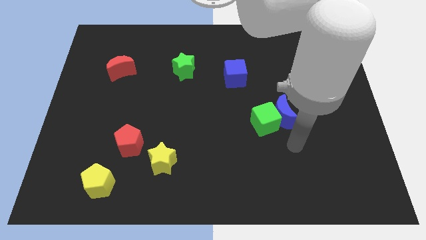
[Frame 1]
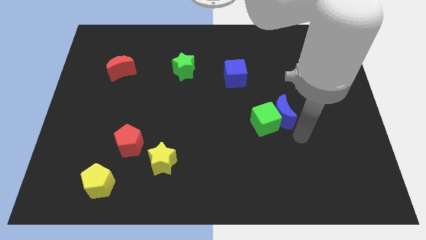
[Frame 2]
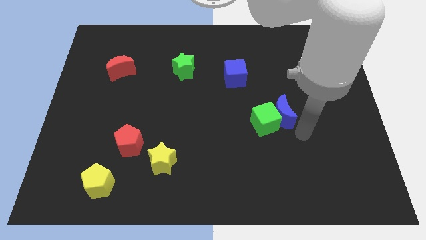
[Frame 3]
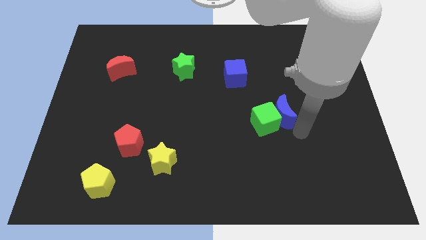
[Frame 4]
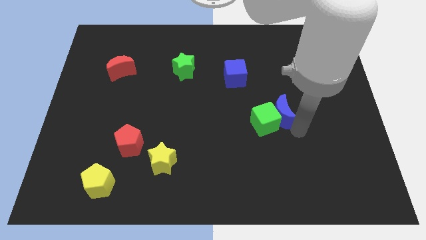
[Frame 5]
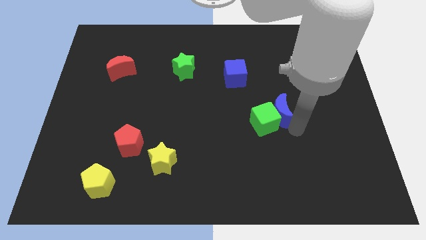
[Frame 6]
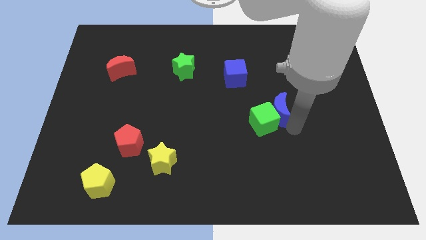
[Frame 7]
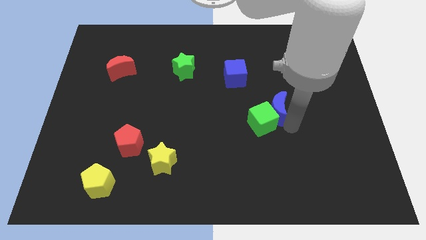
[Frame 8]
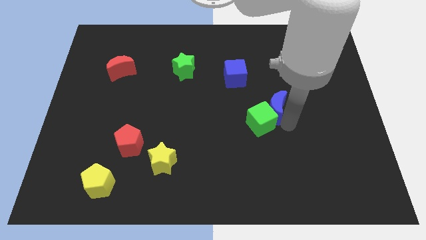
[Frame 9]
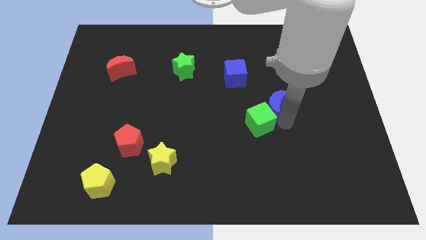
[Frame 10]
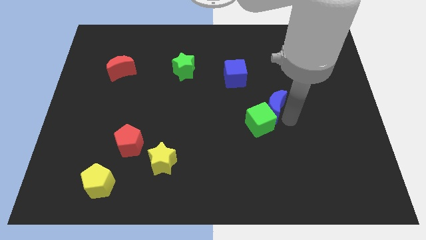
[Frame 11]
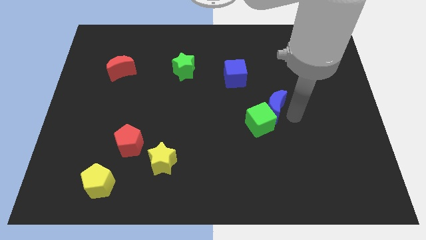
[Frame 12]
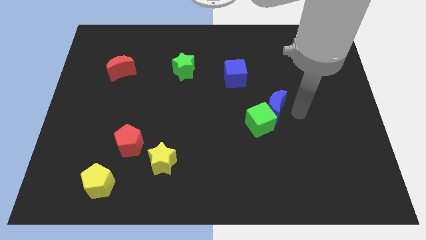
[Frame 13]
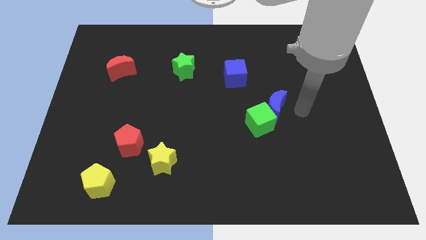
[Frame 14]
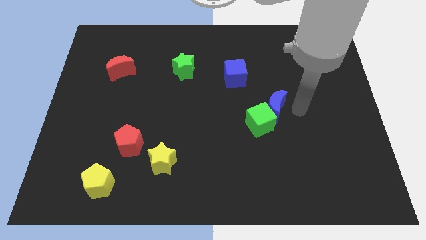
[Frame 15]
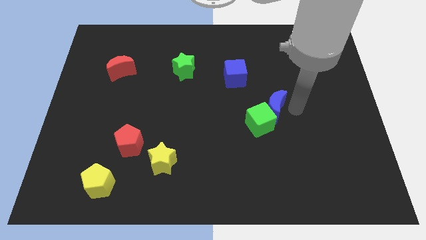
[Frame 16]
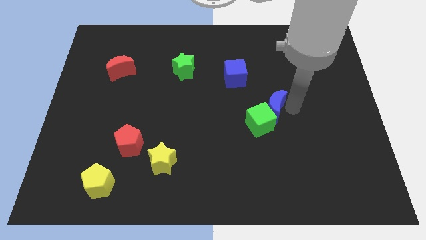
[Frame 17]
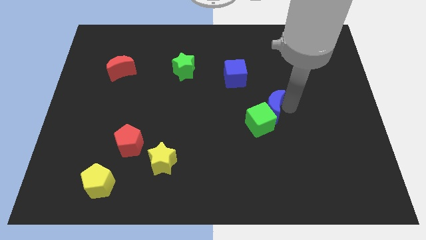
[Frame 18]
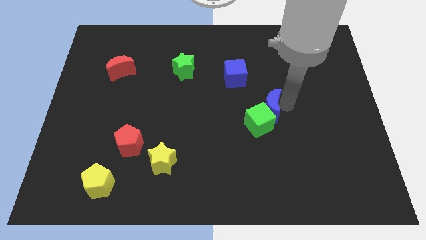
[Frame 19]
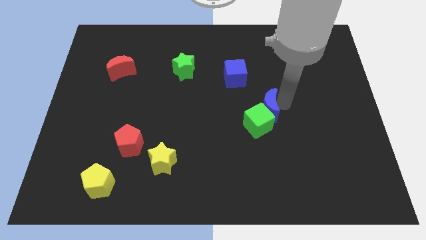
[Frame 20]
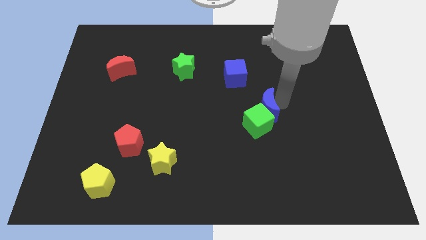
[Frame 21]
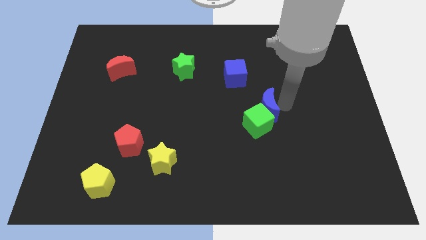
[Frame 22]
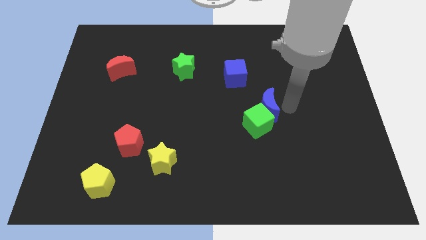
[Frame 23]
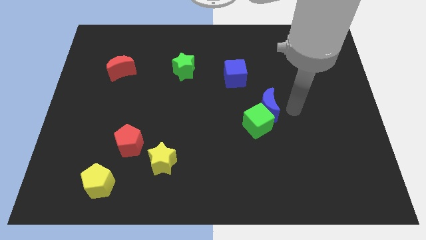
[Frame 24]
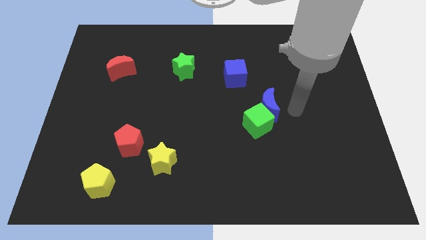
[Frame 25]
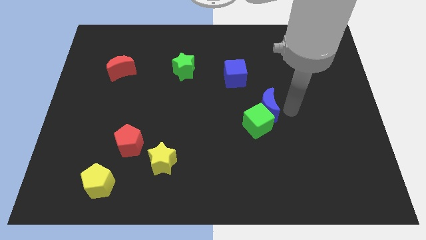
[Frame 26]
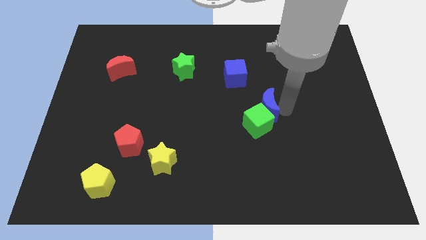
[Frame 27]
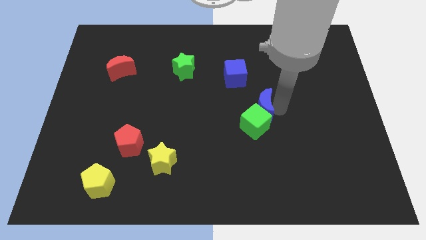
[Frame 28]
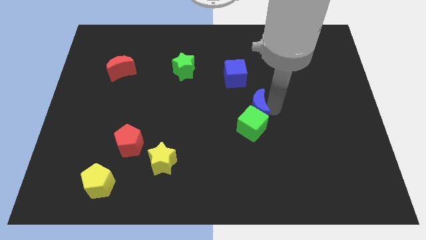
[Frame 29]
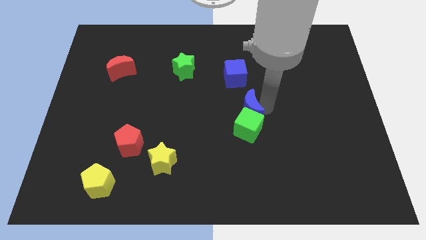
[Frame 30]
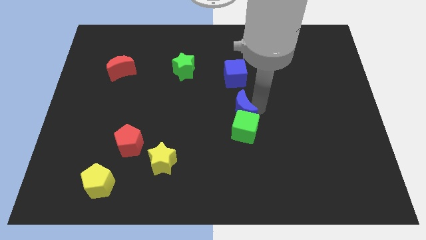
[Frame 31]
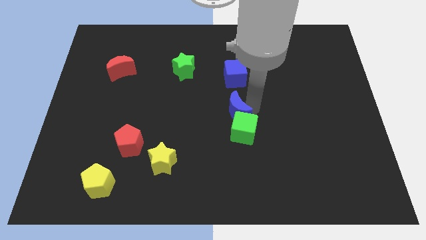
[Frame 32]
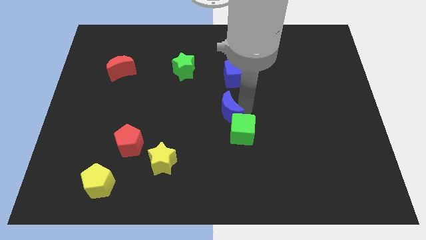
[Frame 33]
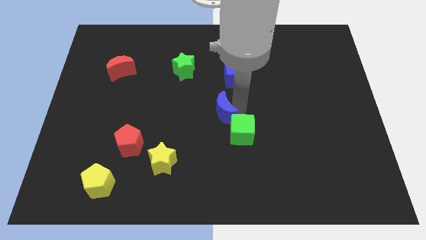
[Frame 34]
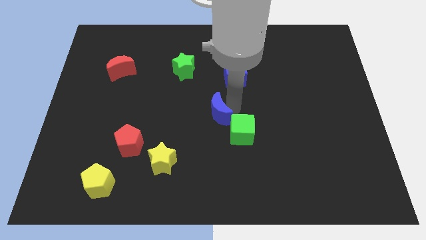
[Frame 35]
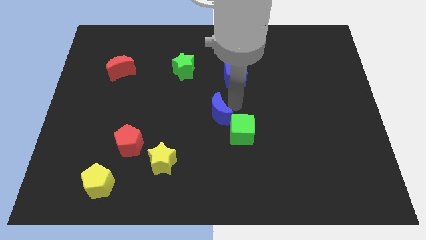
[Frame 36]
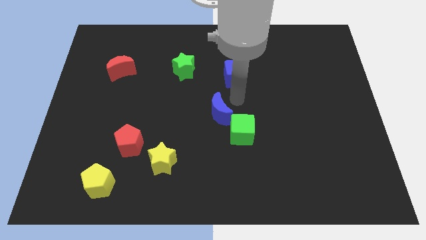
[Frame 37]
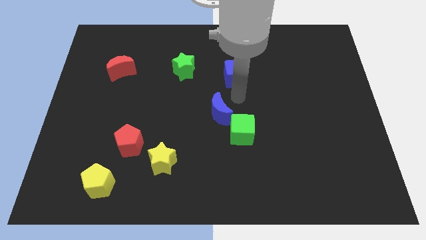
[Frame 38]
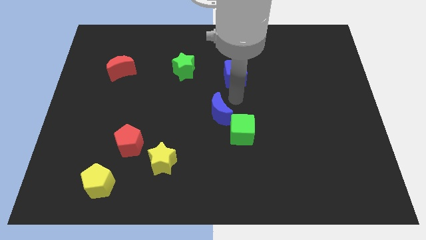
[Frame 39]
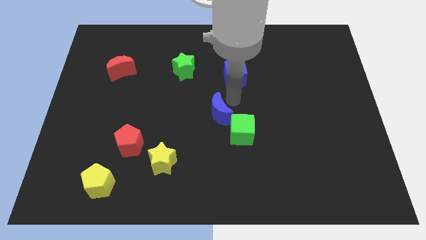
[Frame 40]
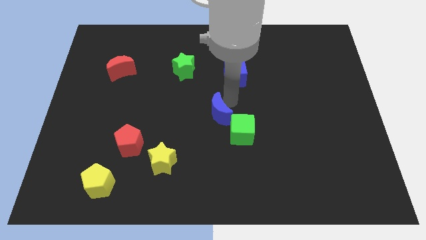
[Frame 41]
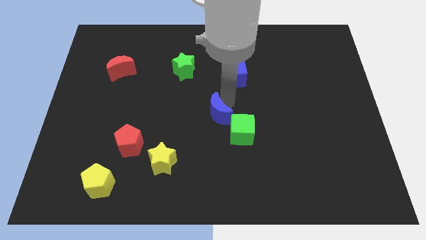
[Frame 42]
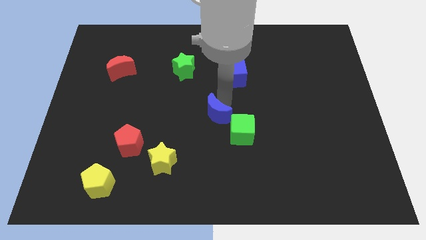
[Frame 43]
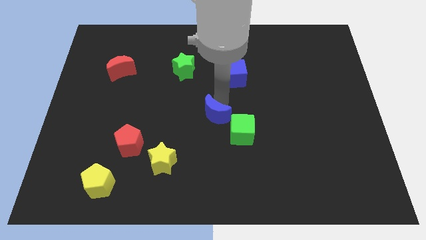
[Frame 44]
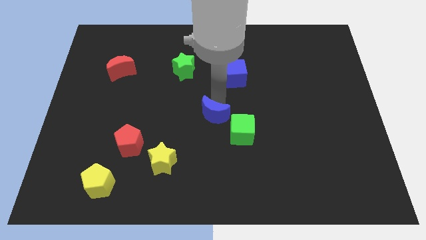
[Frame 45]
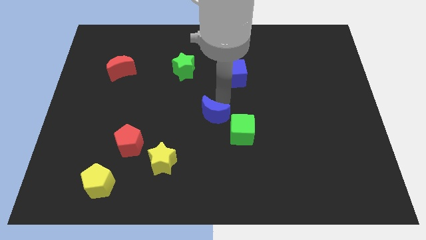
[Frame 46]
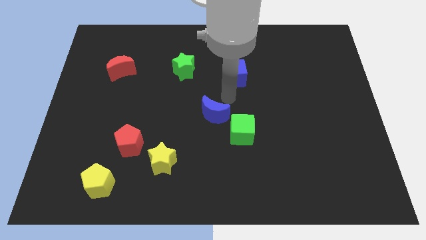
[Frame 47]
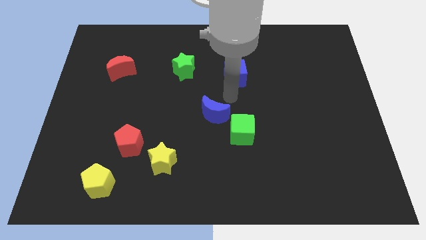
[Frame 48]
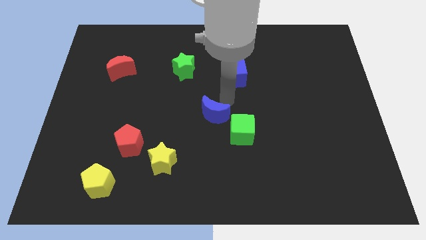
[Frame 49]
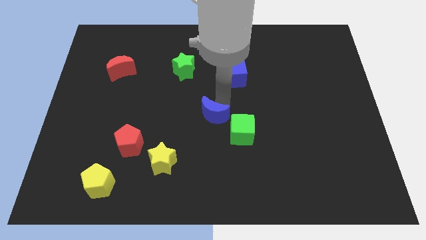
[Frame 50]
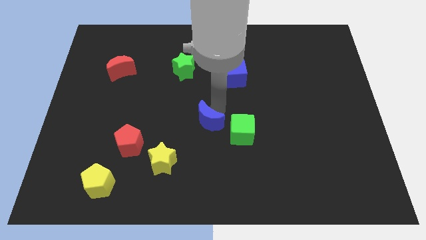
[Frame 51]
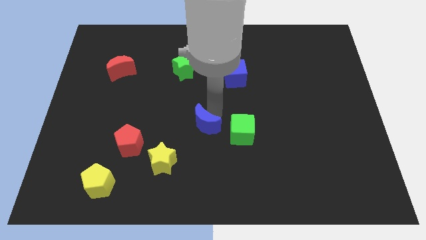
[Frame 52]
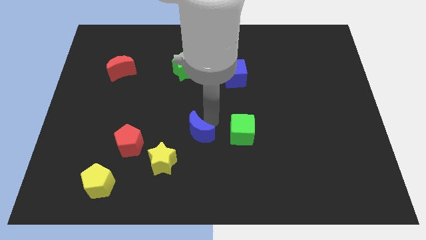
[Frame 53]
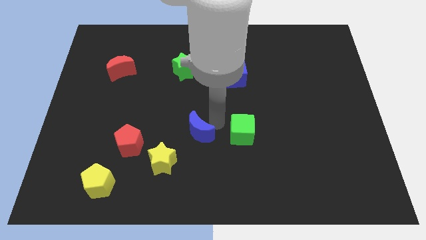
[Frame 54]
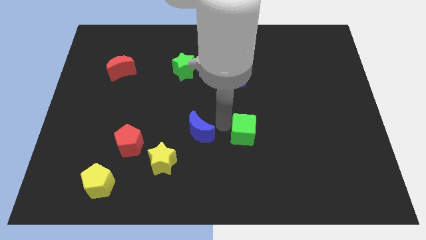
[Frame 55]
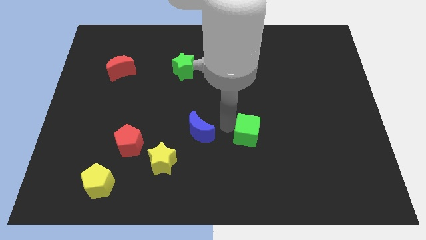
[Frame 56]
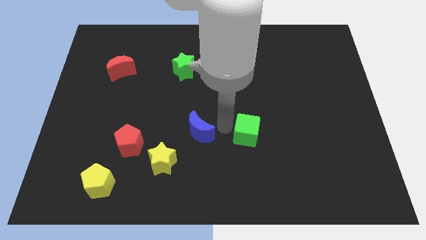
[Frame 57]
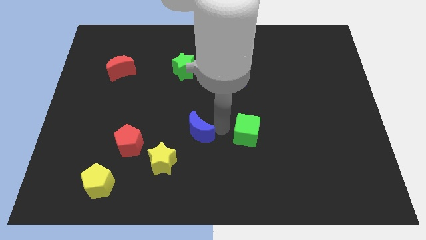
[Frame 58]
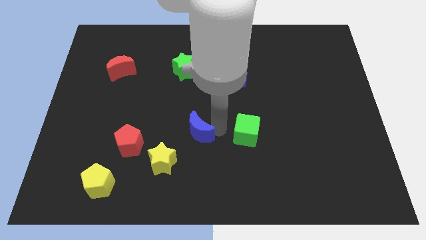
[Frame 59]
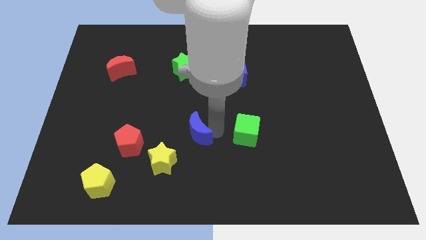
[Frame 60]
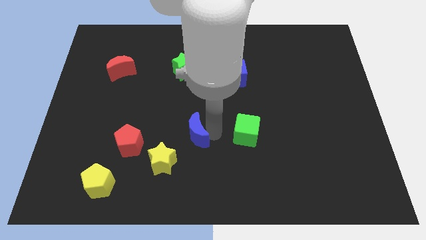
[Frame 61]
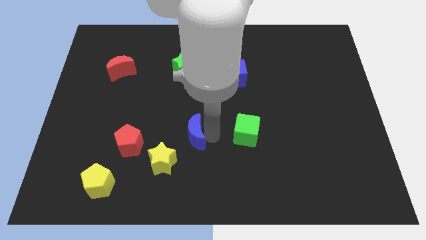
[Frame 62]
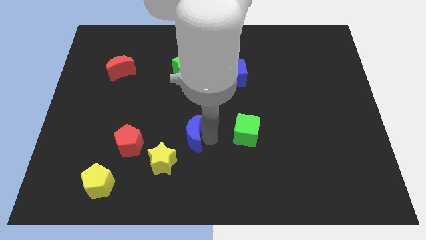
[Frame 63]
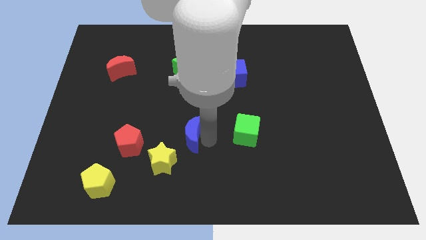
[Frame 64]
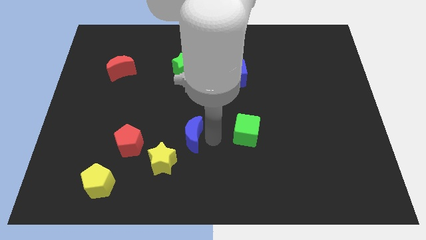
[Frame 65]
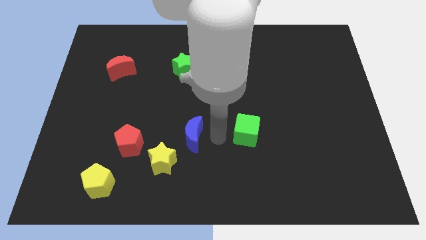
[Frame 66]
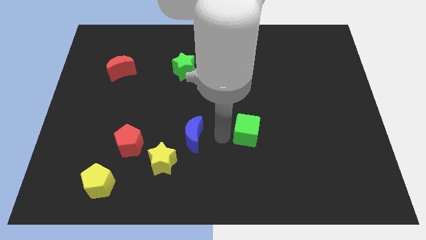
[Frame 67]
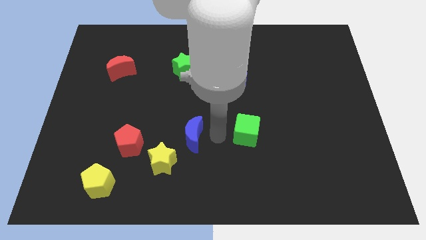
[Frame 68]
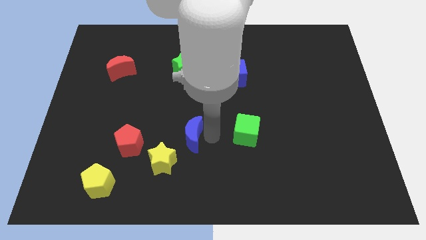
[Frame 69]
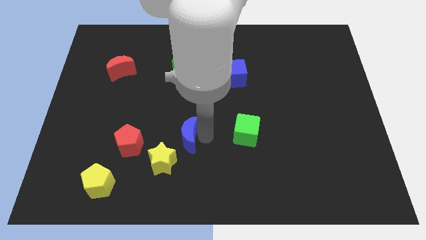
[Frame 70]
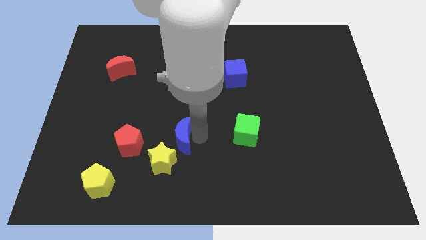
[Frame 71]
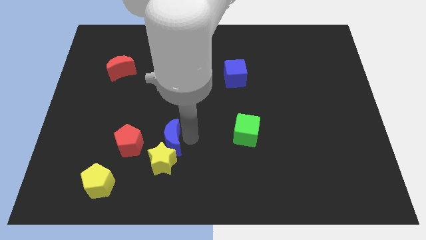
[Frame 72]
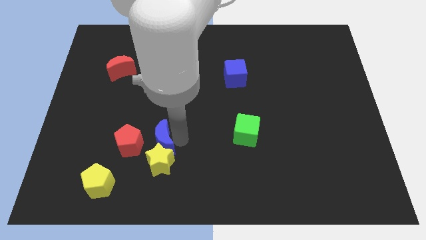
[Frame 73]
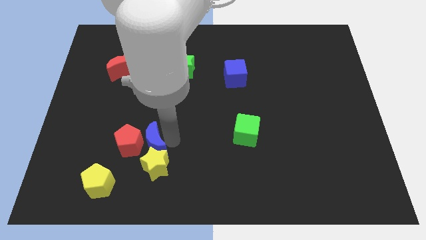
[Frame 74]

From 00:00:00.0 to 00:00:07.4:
push the blue moon next to the red pentagon
